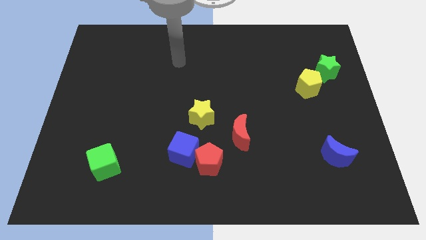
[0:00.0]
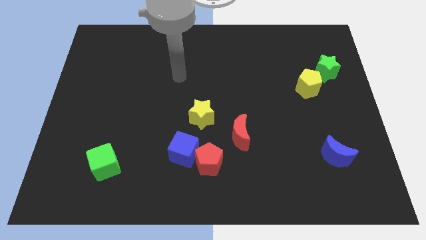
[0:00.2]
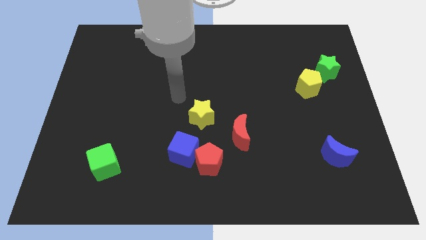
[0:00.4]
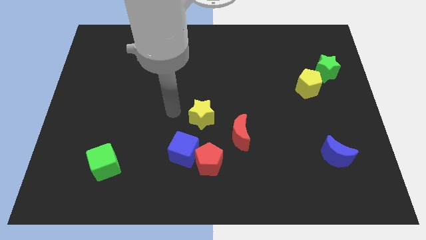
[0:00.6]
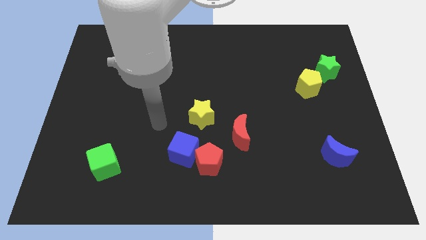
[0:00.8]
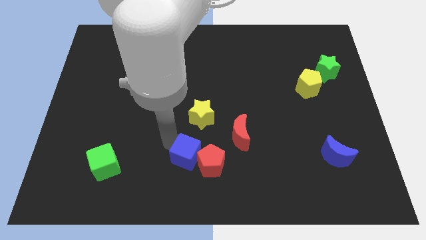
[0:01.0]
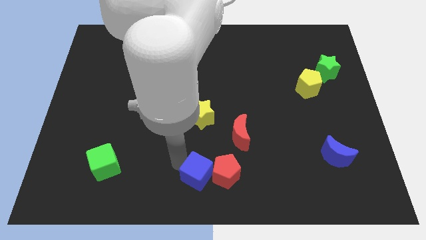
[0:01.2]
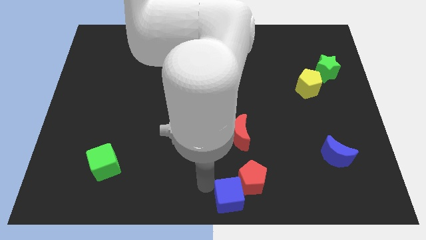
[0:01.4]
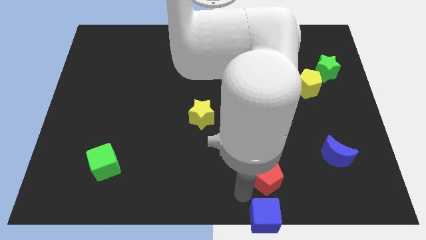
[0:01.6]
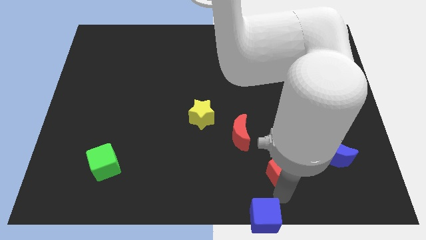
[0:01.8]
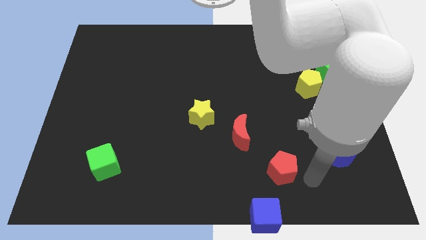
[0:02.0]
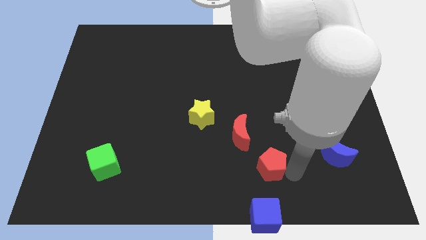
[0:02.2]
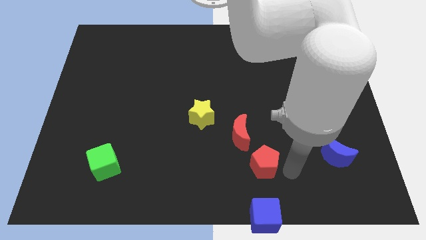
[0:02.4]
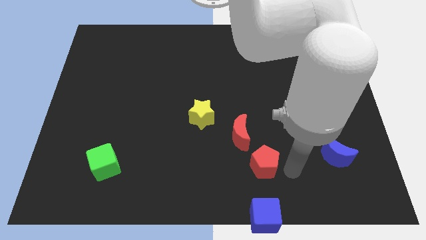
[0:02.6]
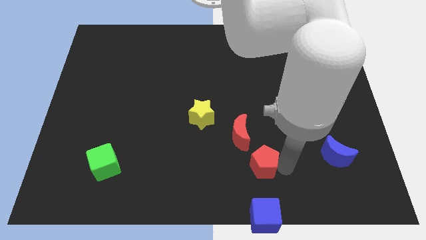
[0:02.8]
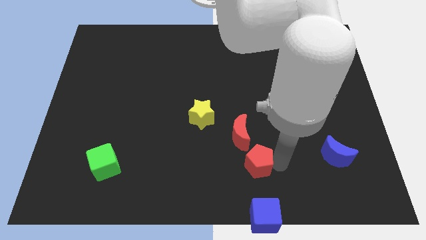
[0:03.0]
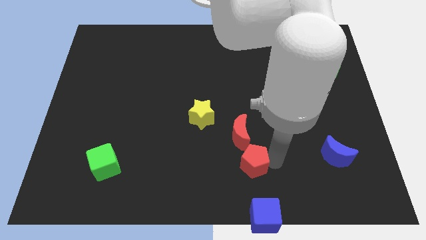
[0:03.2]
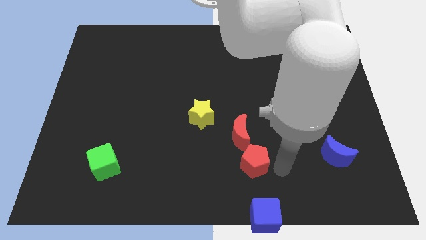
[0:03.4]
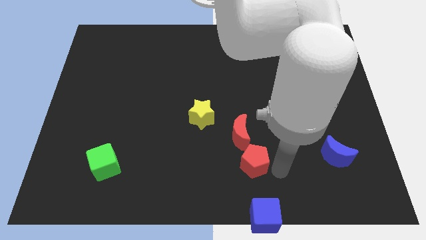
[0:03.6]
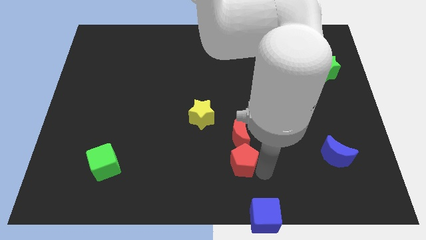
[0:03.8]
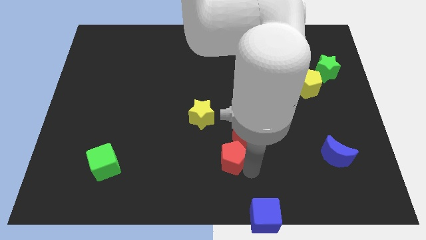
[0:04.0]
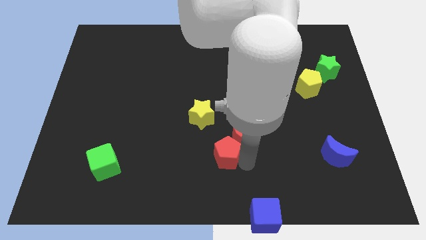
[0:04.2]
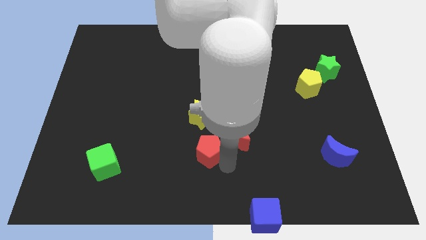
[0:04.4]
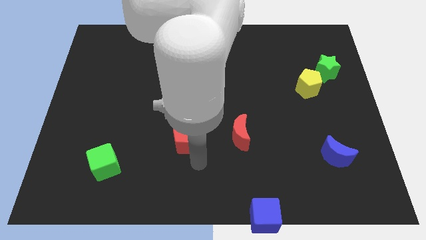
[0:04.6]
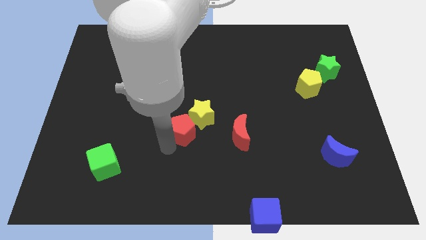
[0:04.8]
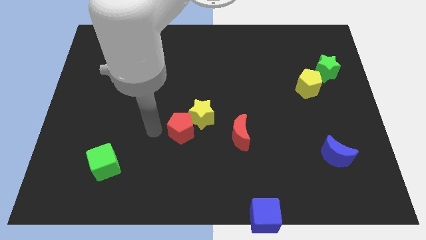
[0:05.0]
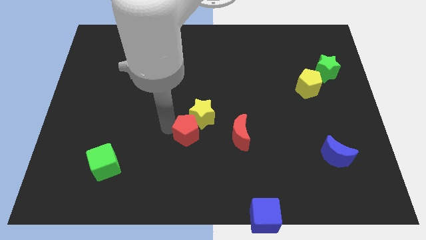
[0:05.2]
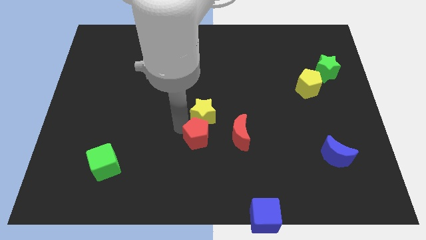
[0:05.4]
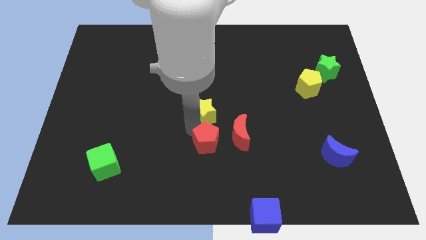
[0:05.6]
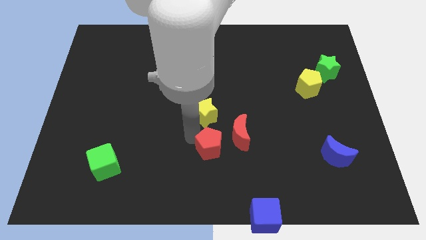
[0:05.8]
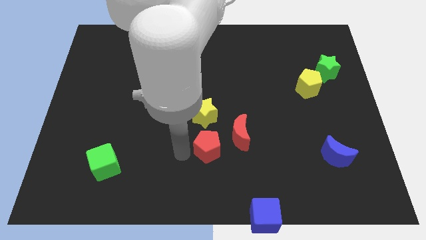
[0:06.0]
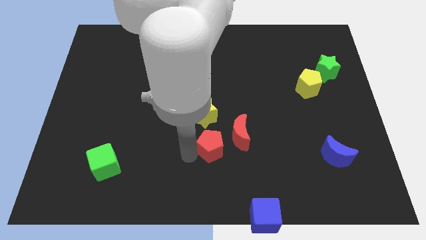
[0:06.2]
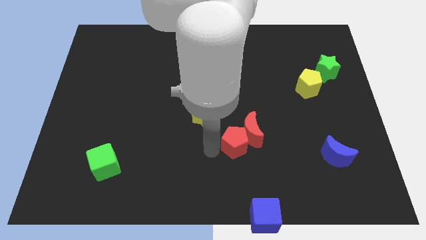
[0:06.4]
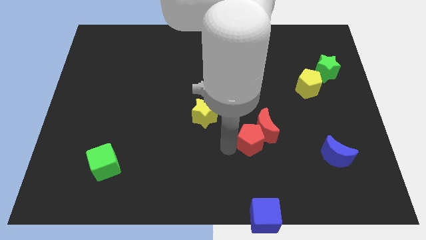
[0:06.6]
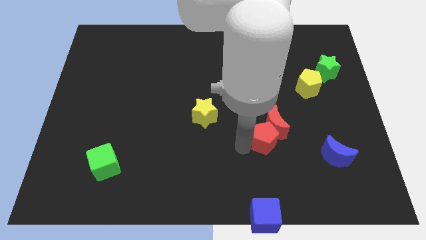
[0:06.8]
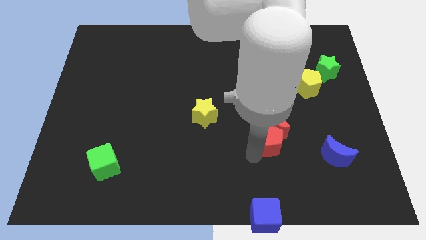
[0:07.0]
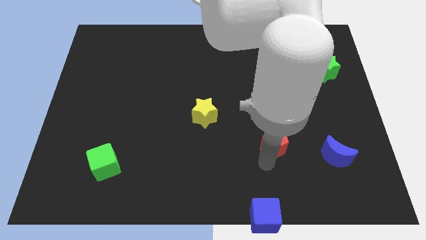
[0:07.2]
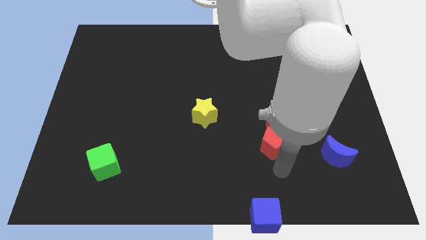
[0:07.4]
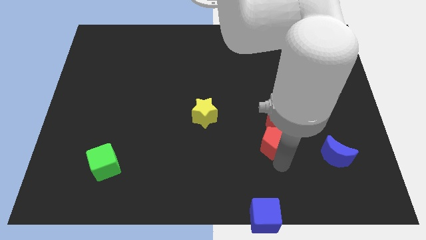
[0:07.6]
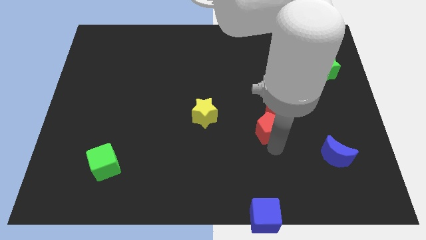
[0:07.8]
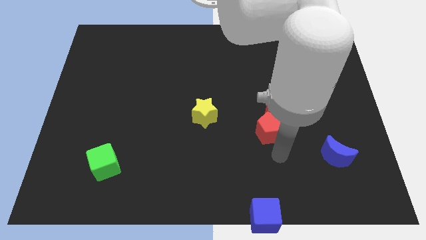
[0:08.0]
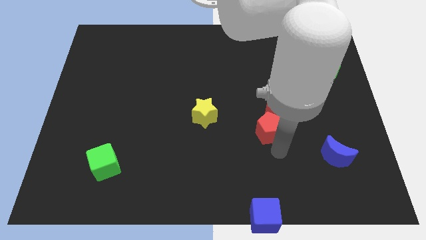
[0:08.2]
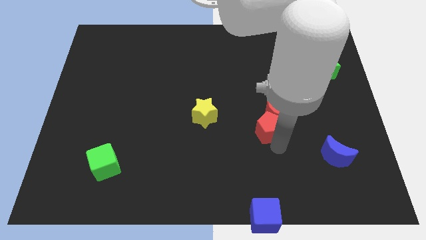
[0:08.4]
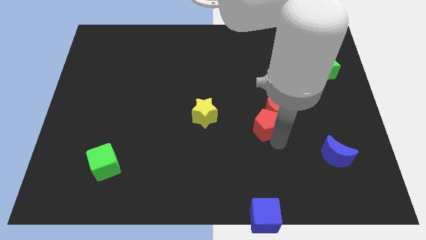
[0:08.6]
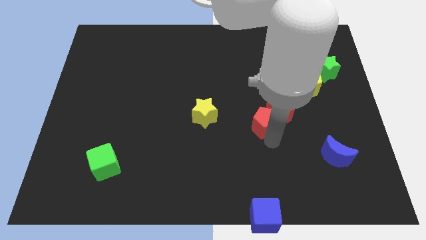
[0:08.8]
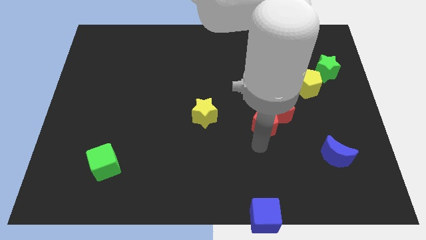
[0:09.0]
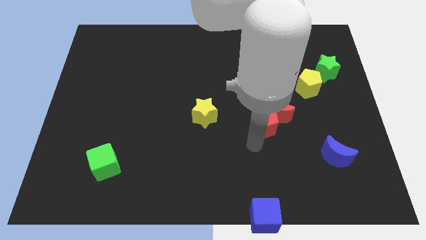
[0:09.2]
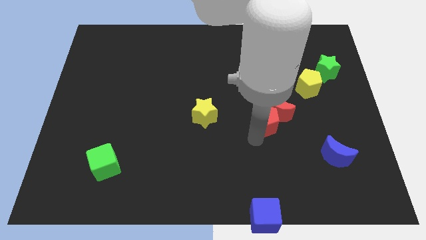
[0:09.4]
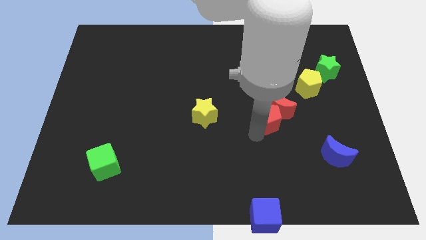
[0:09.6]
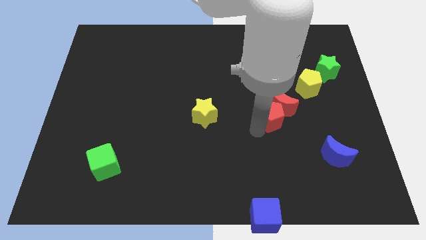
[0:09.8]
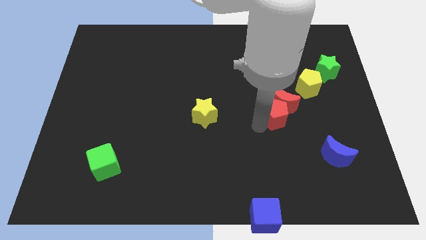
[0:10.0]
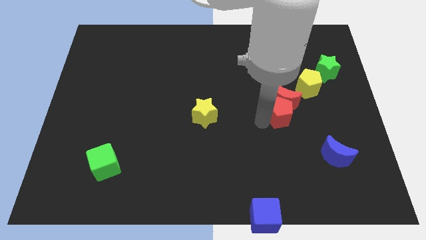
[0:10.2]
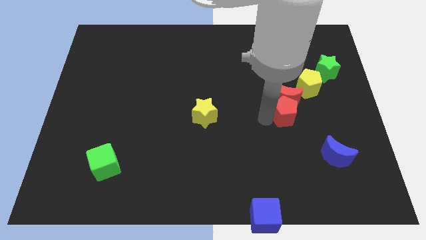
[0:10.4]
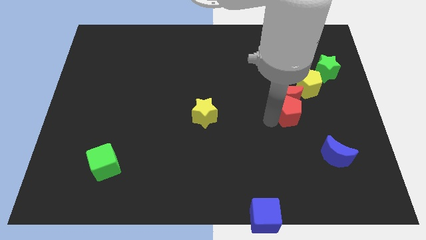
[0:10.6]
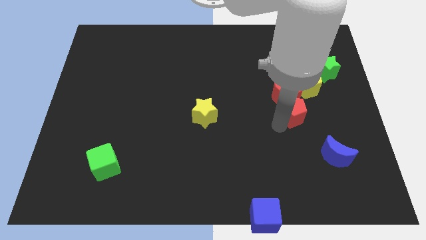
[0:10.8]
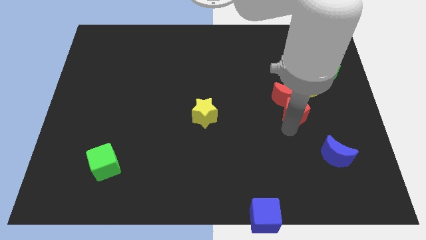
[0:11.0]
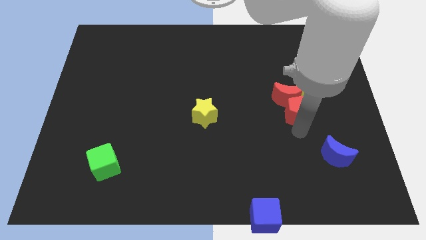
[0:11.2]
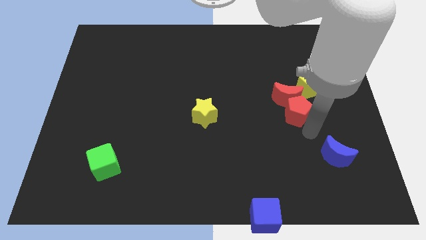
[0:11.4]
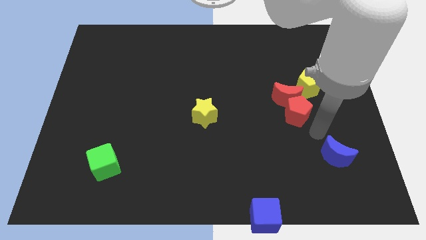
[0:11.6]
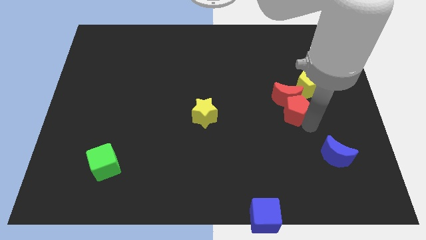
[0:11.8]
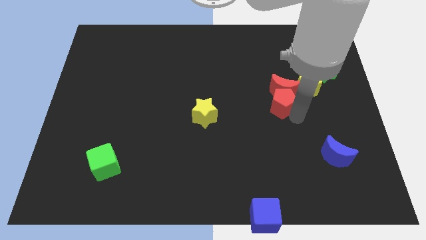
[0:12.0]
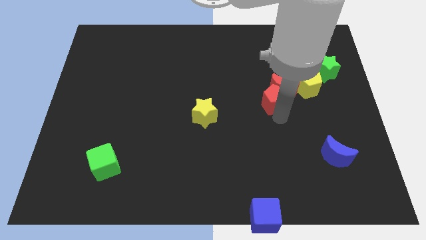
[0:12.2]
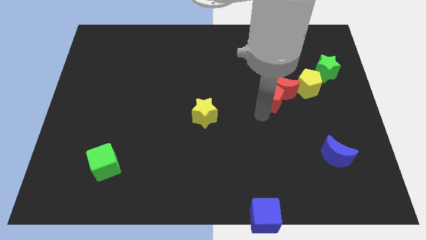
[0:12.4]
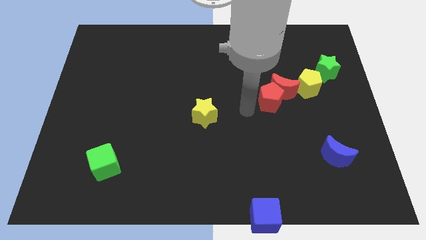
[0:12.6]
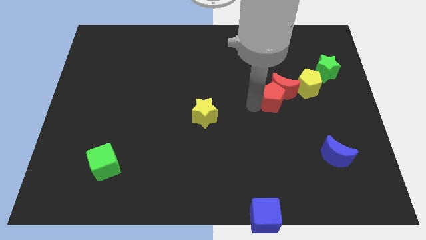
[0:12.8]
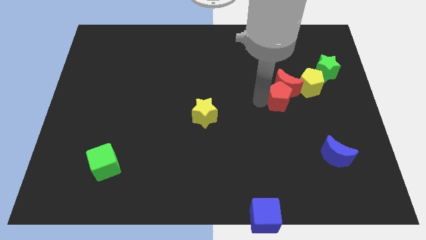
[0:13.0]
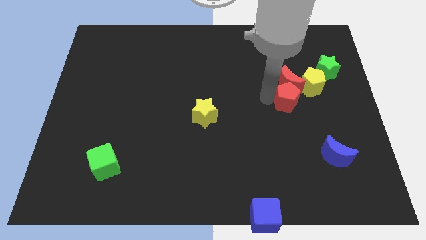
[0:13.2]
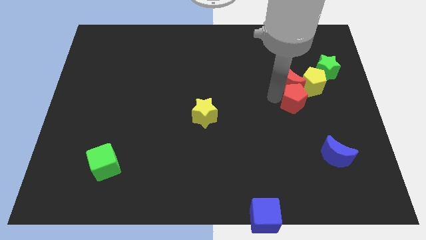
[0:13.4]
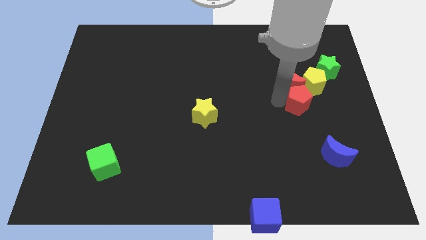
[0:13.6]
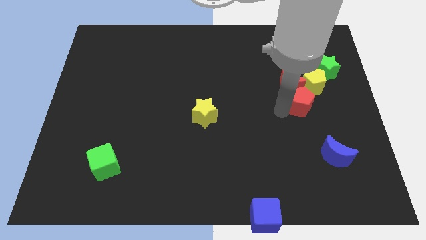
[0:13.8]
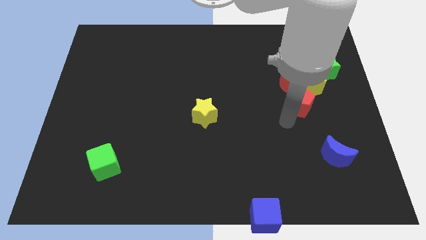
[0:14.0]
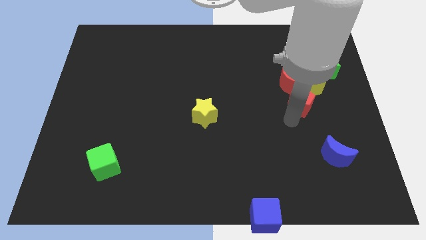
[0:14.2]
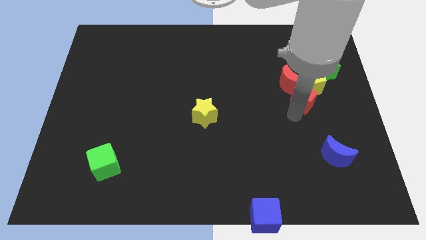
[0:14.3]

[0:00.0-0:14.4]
slide the red pentagon close to the yellow pentagon

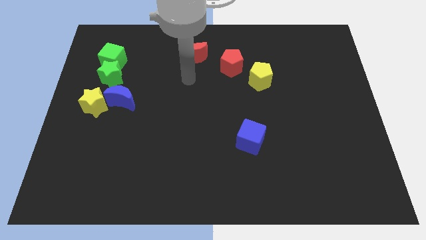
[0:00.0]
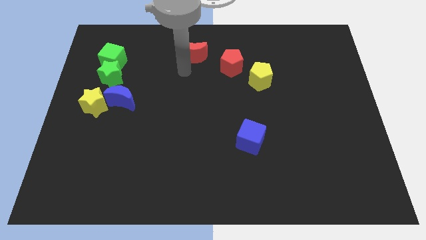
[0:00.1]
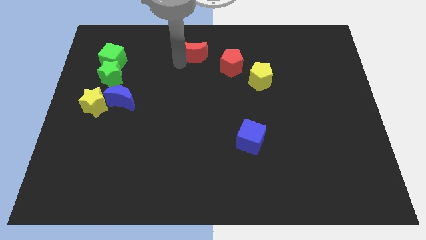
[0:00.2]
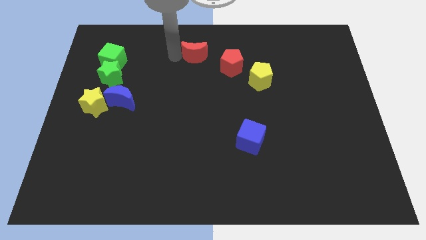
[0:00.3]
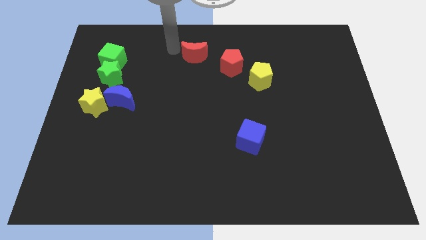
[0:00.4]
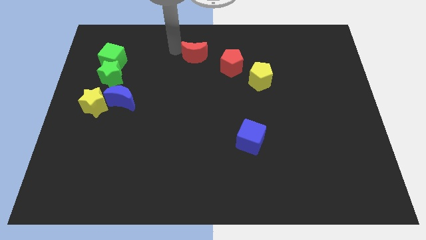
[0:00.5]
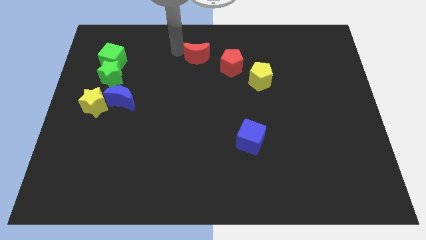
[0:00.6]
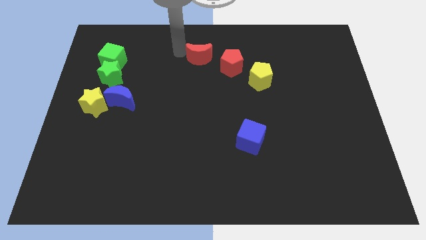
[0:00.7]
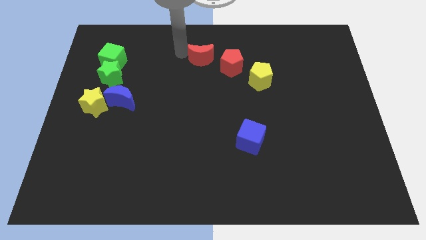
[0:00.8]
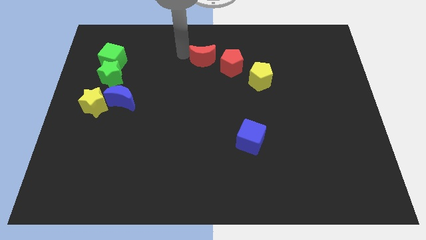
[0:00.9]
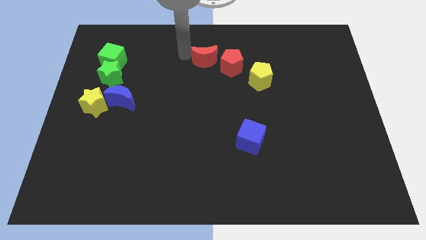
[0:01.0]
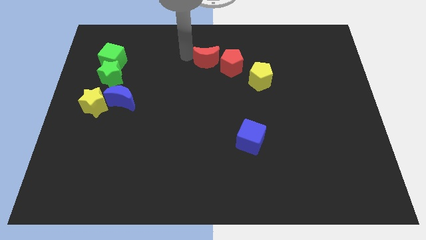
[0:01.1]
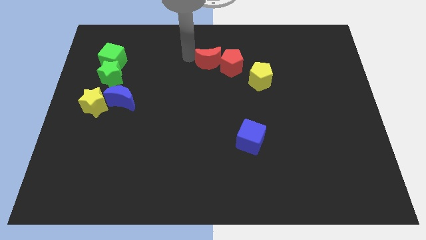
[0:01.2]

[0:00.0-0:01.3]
push the red moon next to the red pentagon
